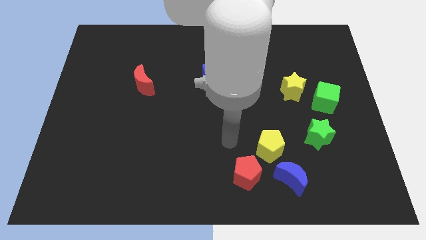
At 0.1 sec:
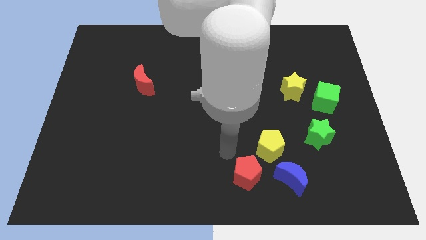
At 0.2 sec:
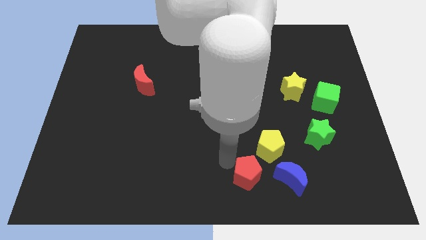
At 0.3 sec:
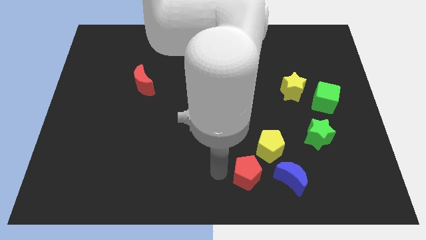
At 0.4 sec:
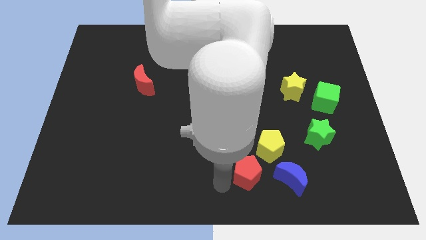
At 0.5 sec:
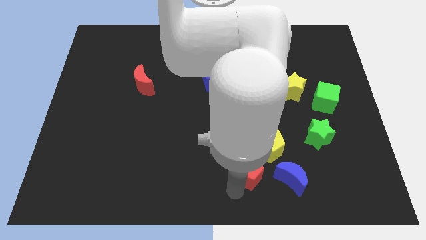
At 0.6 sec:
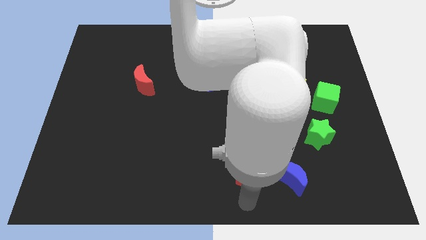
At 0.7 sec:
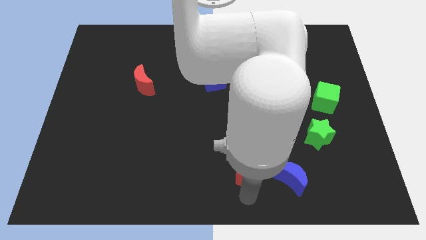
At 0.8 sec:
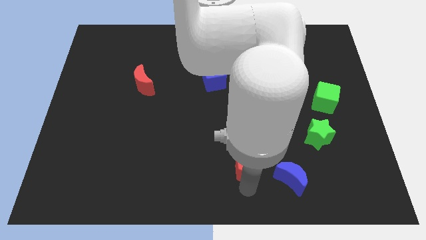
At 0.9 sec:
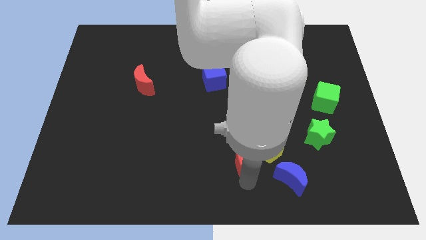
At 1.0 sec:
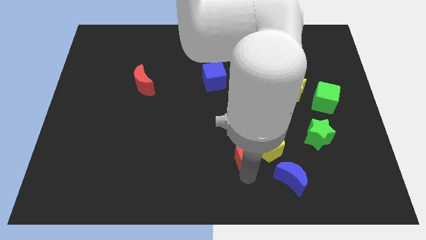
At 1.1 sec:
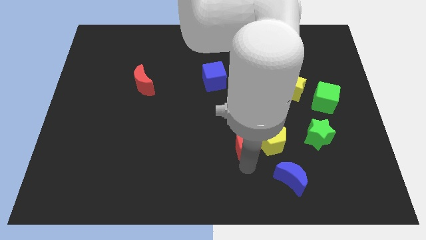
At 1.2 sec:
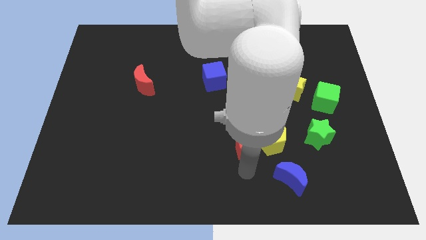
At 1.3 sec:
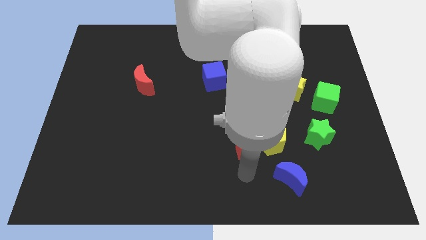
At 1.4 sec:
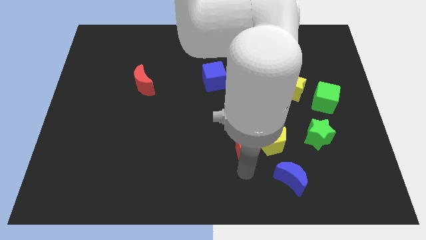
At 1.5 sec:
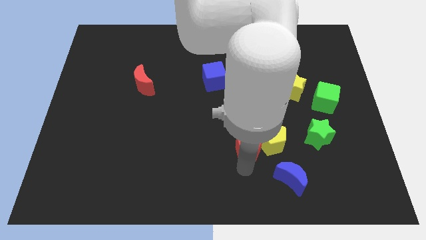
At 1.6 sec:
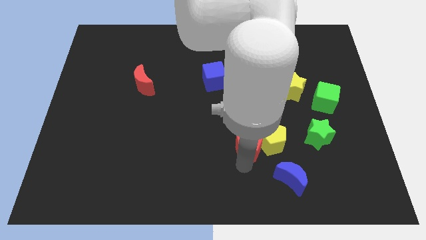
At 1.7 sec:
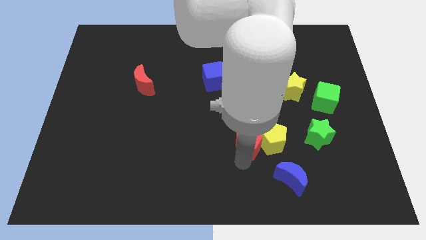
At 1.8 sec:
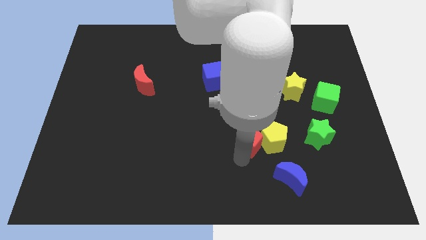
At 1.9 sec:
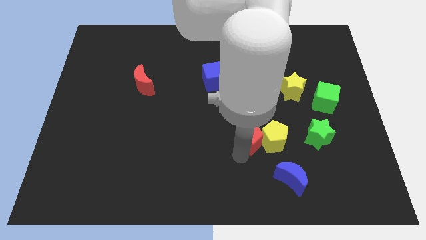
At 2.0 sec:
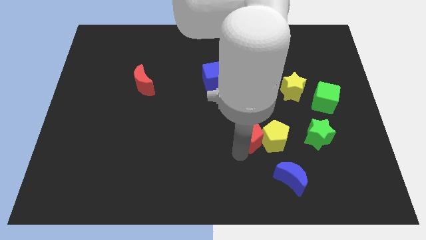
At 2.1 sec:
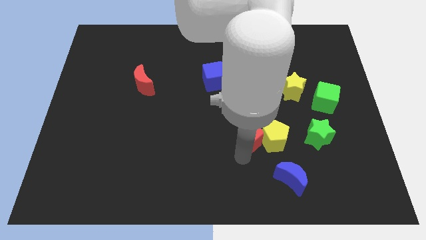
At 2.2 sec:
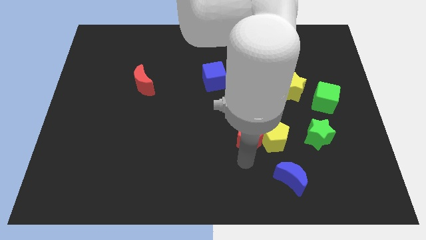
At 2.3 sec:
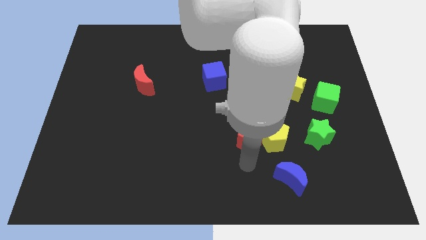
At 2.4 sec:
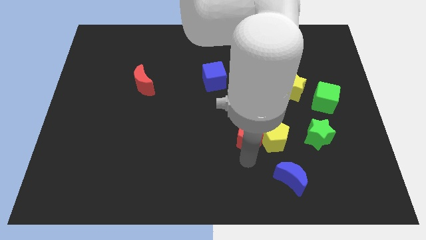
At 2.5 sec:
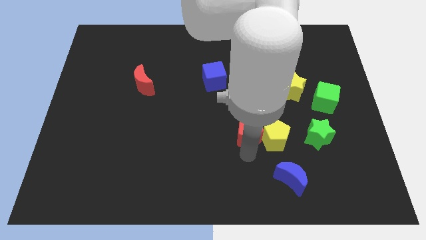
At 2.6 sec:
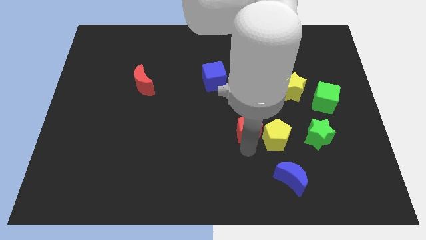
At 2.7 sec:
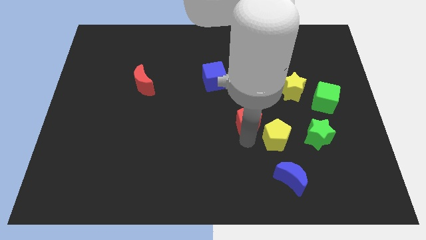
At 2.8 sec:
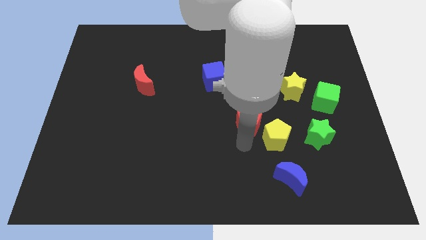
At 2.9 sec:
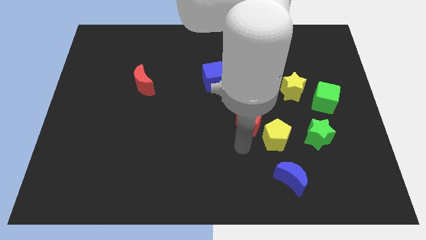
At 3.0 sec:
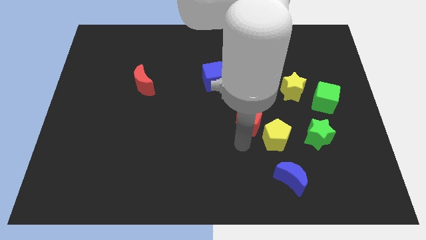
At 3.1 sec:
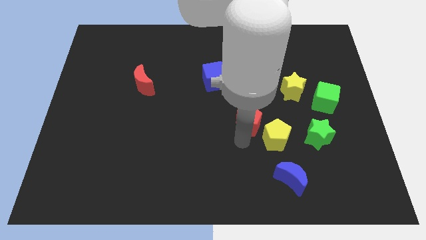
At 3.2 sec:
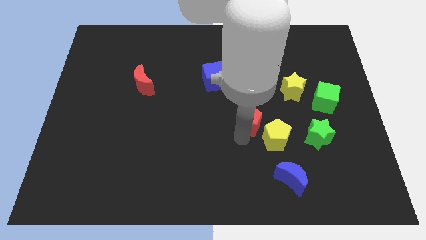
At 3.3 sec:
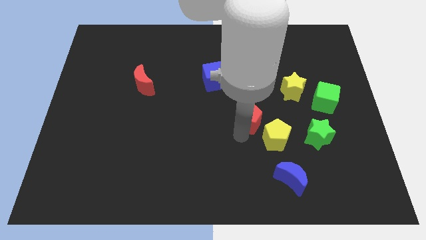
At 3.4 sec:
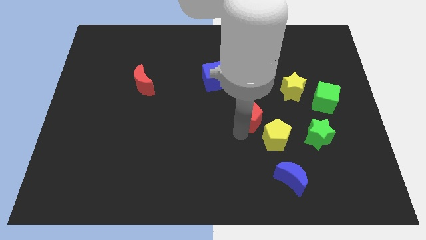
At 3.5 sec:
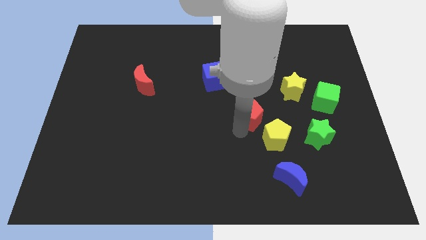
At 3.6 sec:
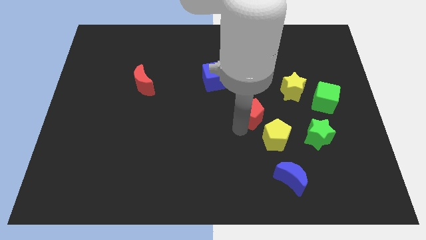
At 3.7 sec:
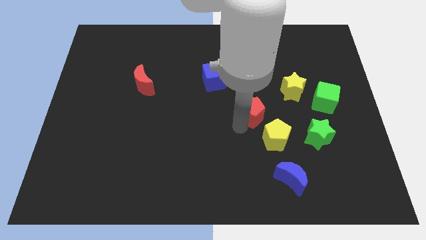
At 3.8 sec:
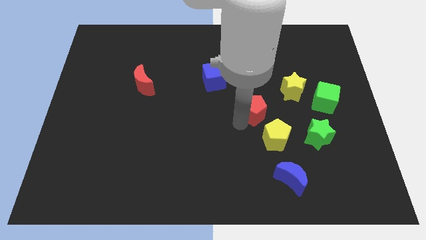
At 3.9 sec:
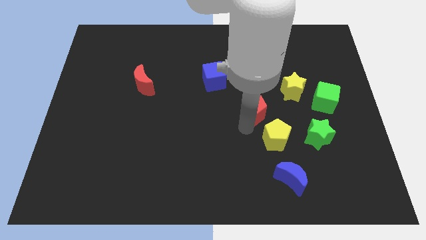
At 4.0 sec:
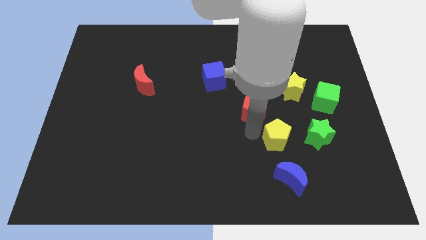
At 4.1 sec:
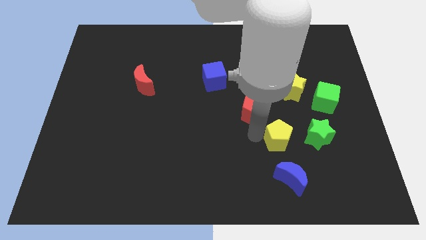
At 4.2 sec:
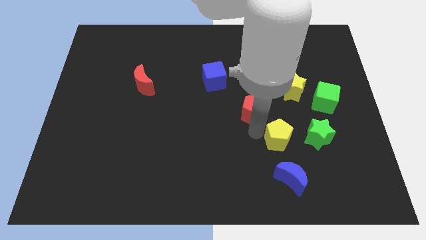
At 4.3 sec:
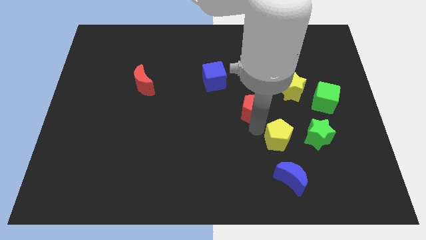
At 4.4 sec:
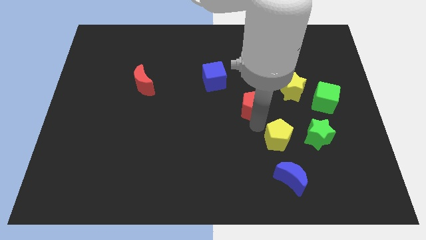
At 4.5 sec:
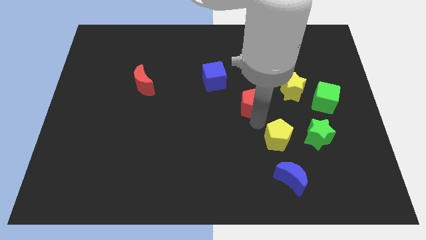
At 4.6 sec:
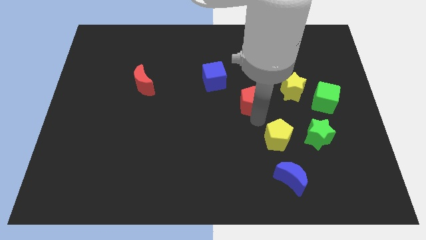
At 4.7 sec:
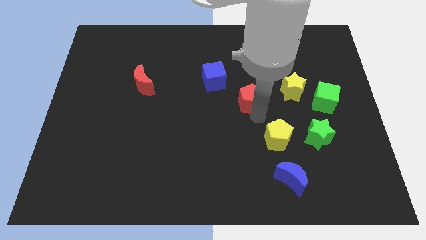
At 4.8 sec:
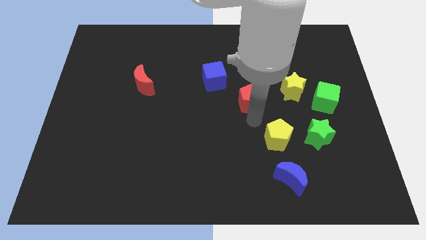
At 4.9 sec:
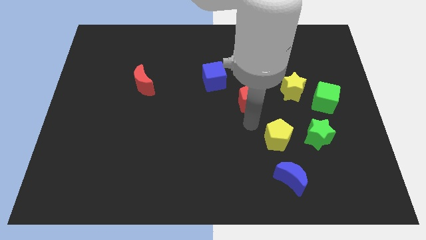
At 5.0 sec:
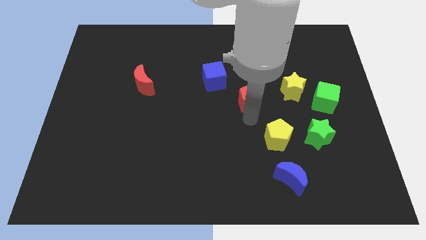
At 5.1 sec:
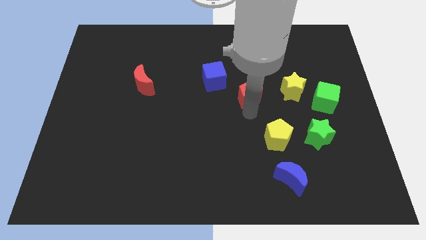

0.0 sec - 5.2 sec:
slide the red pentagon up

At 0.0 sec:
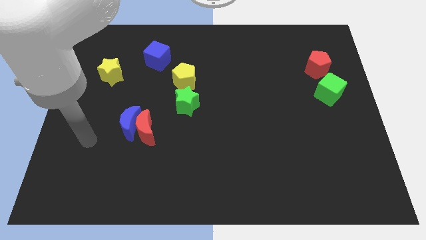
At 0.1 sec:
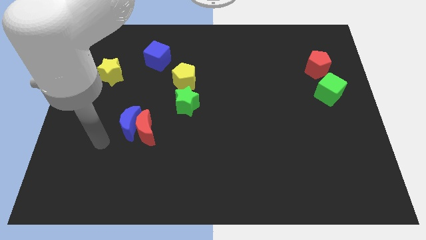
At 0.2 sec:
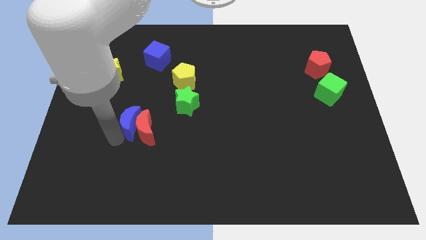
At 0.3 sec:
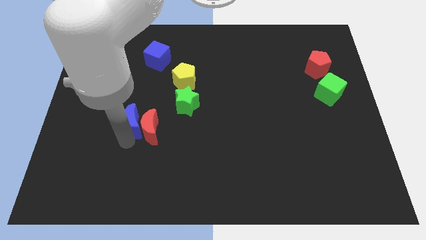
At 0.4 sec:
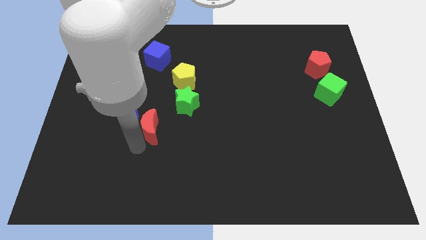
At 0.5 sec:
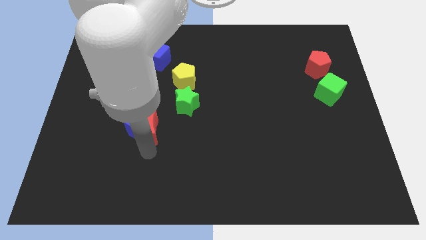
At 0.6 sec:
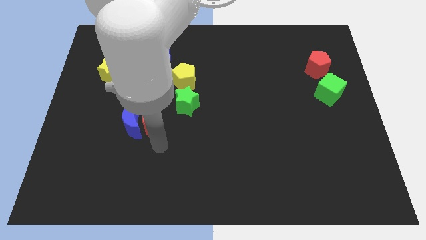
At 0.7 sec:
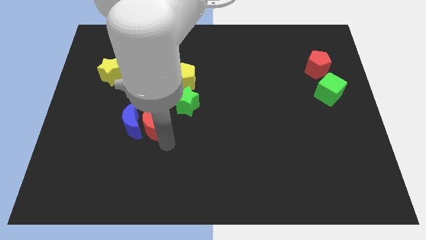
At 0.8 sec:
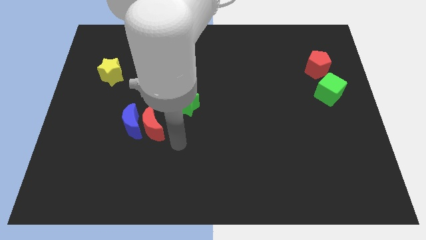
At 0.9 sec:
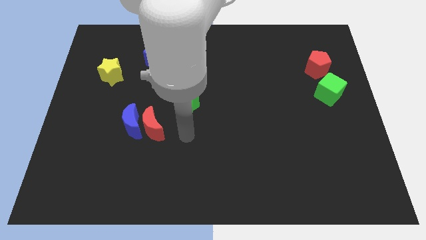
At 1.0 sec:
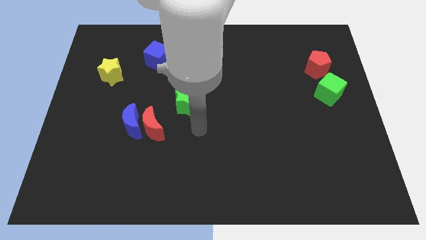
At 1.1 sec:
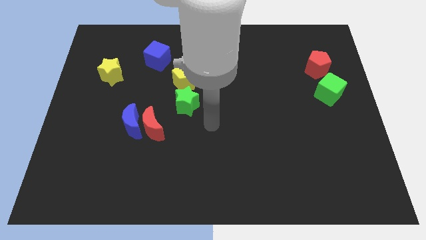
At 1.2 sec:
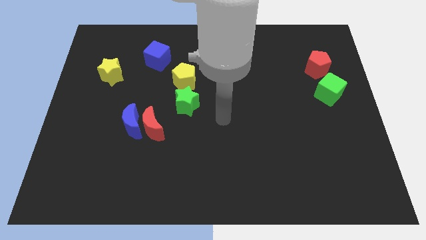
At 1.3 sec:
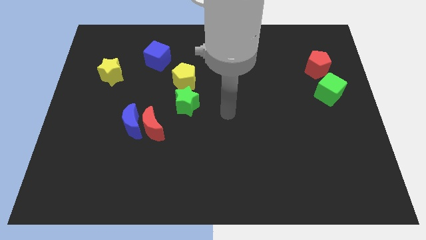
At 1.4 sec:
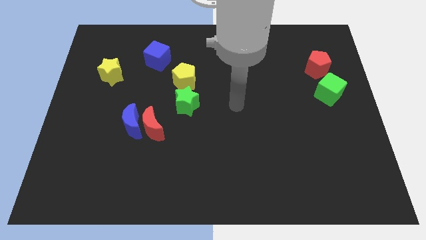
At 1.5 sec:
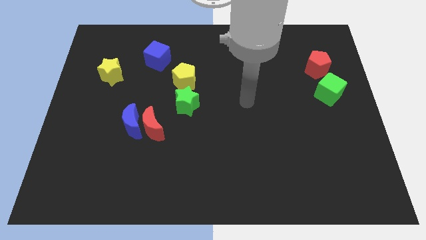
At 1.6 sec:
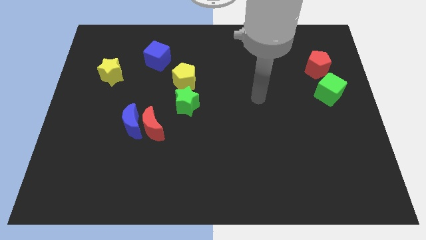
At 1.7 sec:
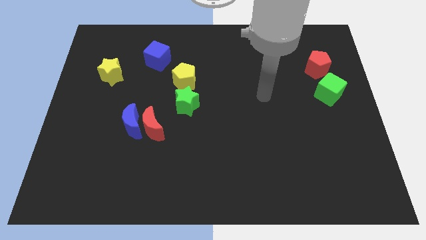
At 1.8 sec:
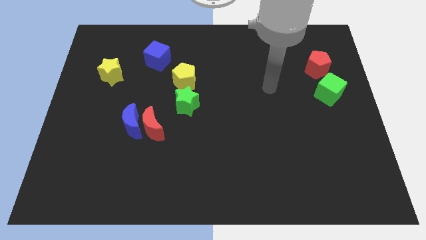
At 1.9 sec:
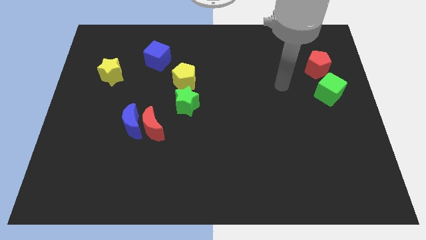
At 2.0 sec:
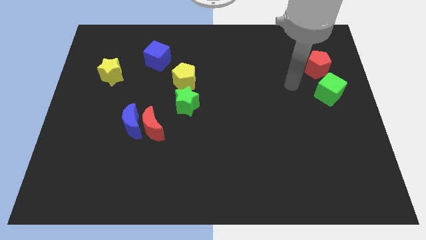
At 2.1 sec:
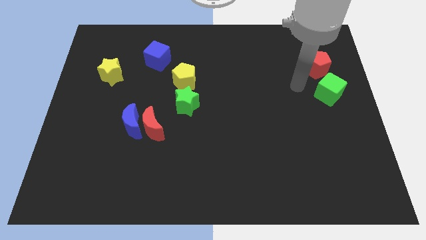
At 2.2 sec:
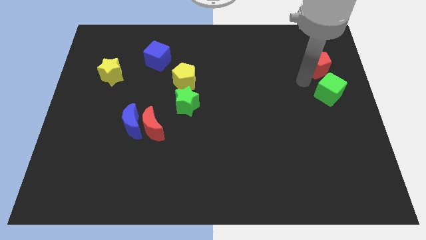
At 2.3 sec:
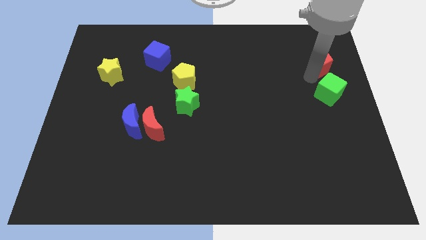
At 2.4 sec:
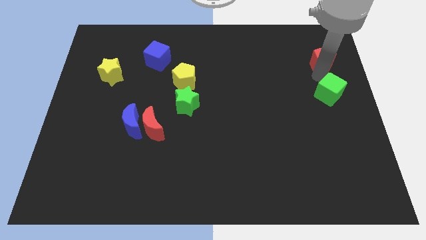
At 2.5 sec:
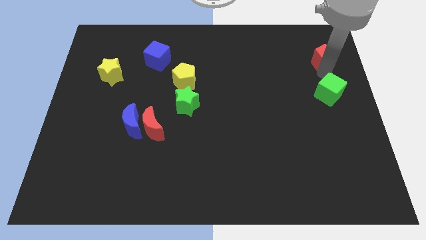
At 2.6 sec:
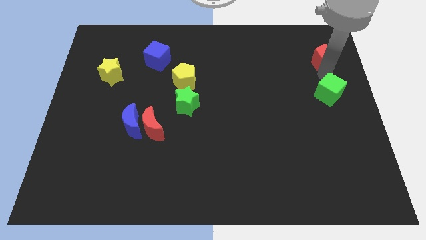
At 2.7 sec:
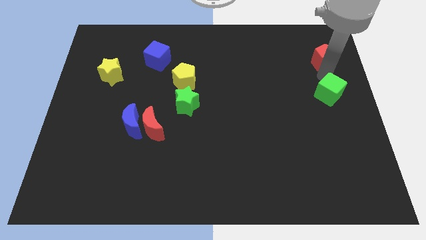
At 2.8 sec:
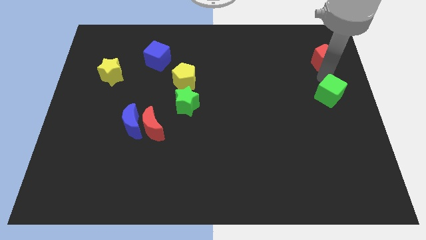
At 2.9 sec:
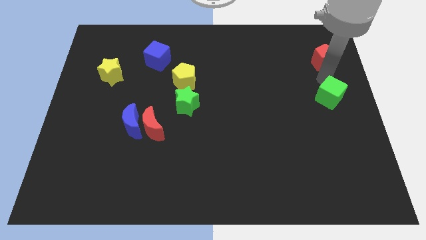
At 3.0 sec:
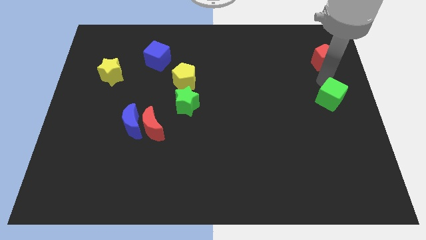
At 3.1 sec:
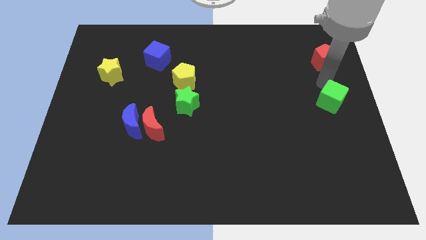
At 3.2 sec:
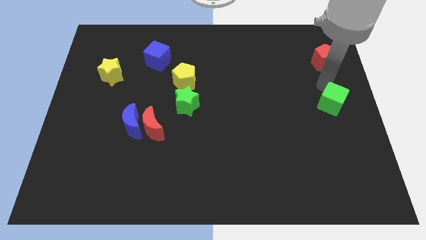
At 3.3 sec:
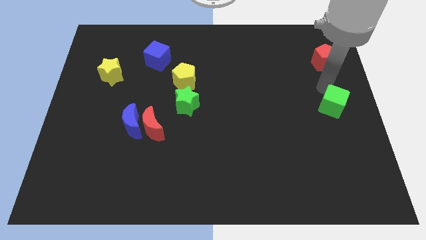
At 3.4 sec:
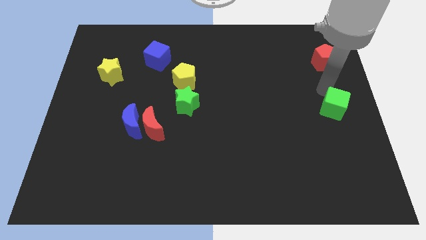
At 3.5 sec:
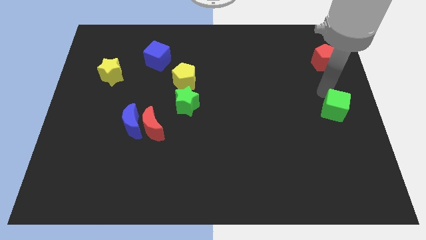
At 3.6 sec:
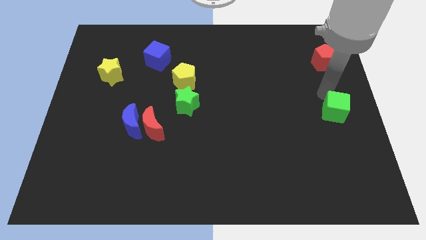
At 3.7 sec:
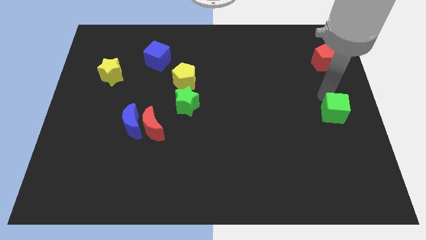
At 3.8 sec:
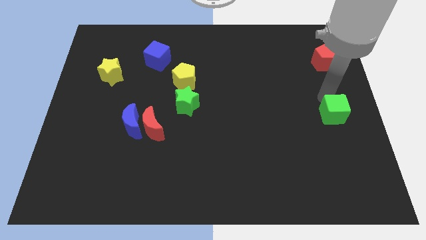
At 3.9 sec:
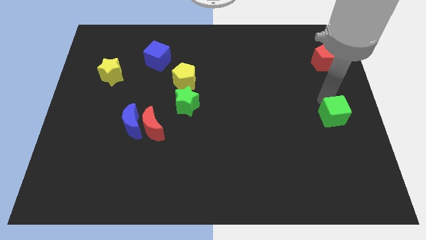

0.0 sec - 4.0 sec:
slightly push the green cube downwards
